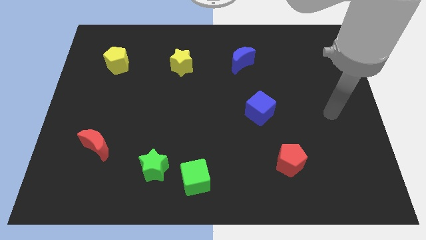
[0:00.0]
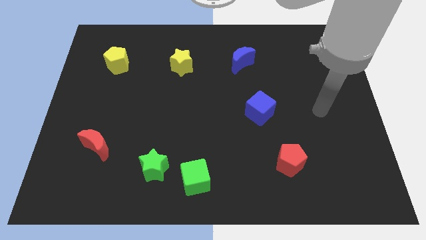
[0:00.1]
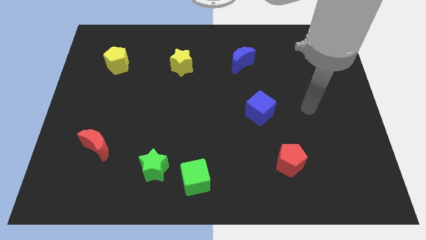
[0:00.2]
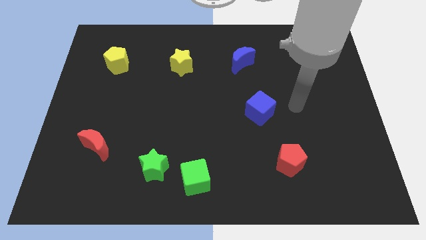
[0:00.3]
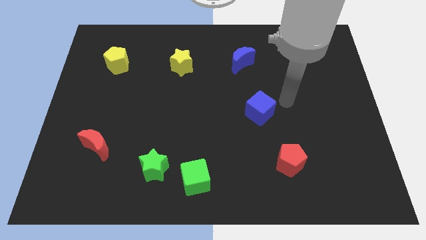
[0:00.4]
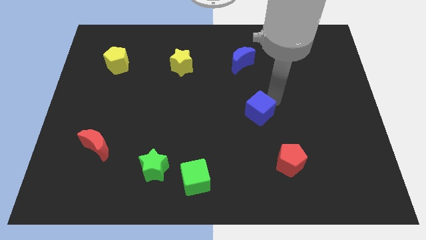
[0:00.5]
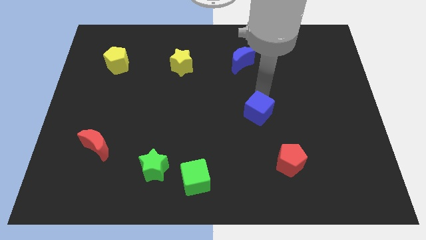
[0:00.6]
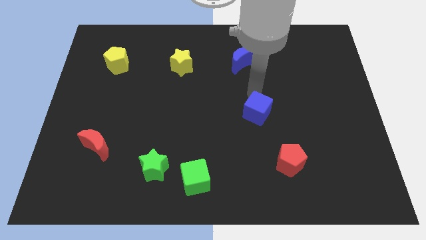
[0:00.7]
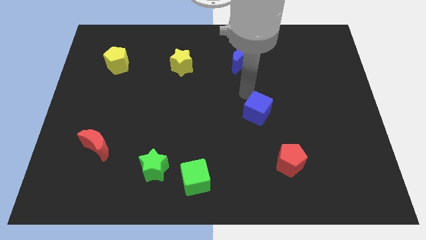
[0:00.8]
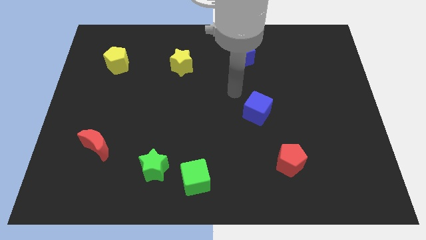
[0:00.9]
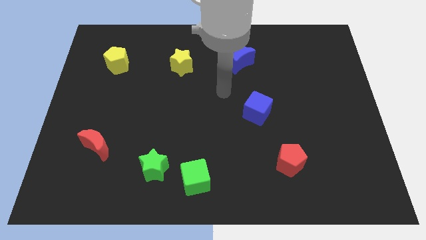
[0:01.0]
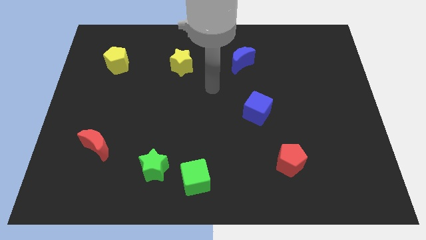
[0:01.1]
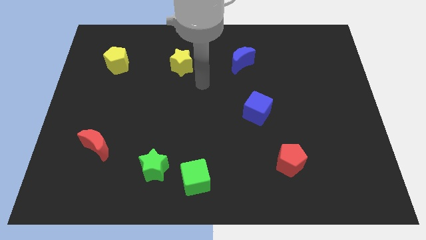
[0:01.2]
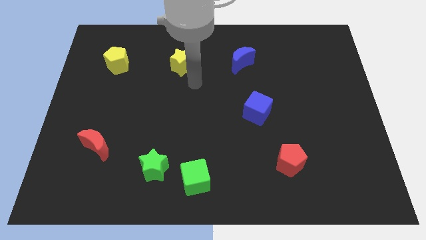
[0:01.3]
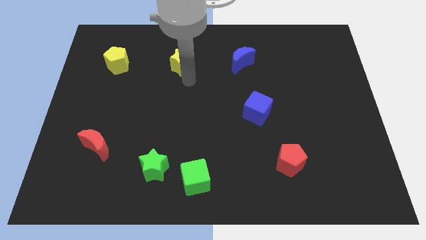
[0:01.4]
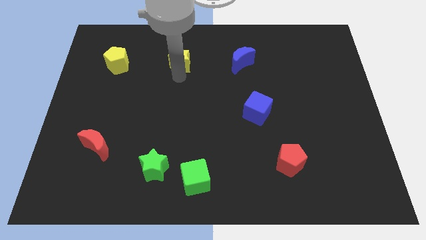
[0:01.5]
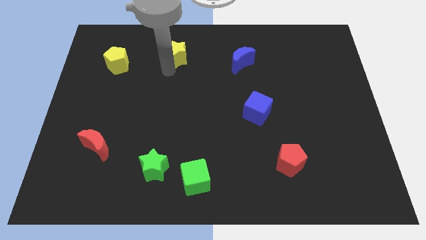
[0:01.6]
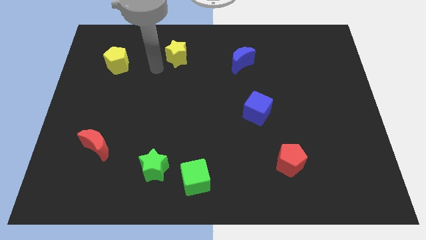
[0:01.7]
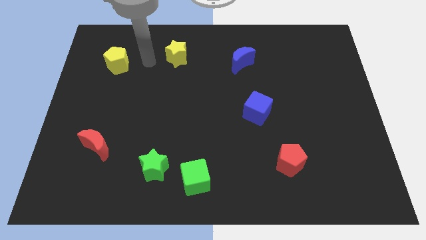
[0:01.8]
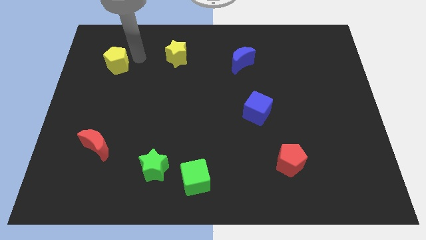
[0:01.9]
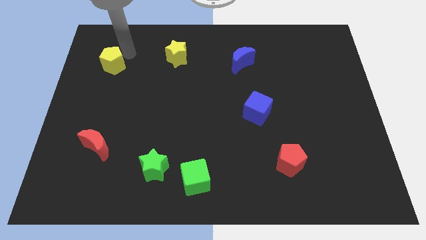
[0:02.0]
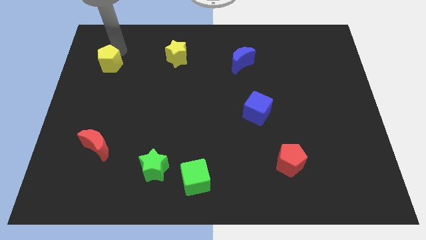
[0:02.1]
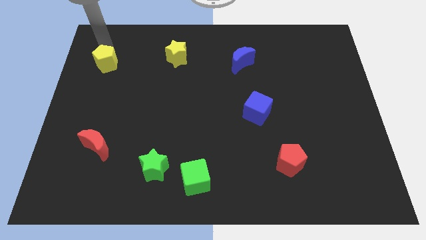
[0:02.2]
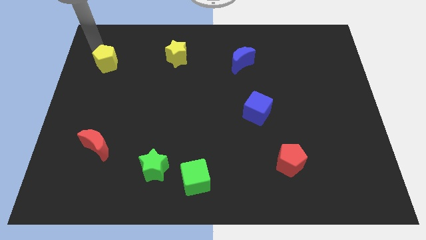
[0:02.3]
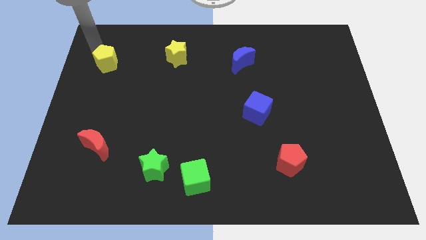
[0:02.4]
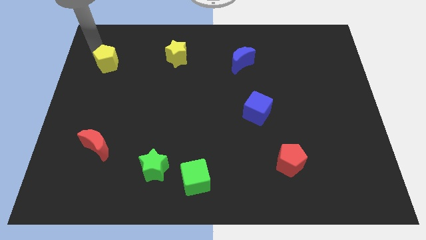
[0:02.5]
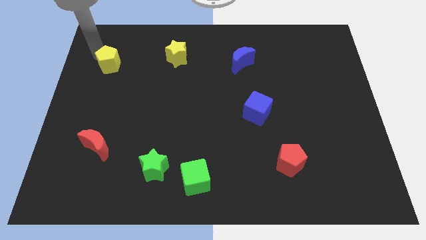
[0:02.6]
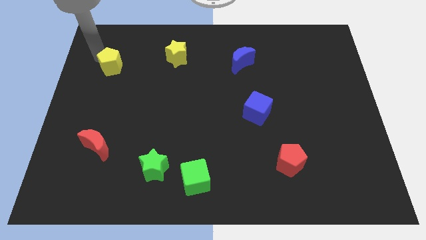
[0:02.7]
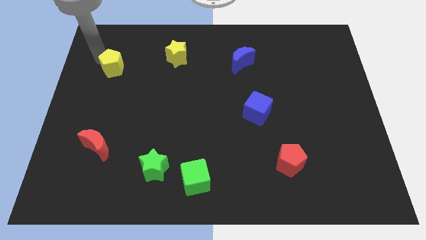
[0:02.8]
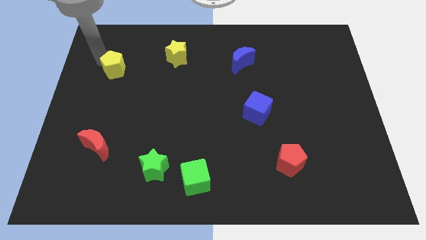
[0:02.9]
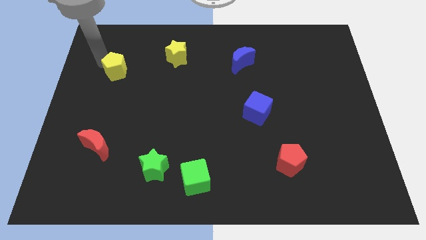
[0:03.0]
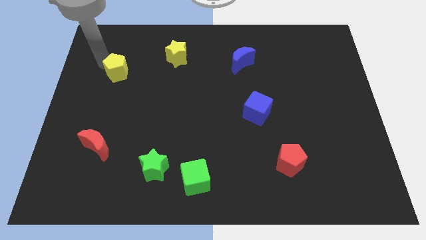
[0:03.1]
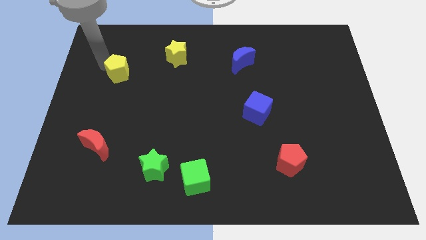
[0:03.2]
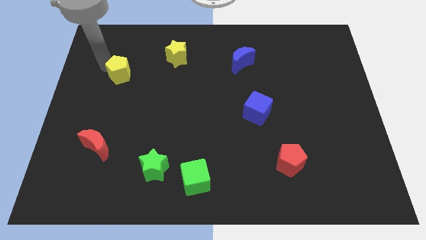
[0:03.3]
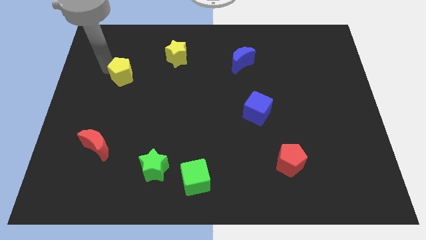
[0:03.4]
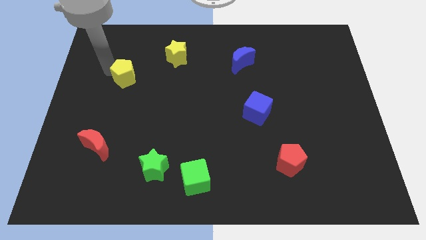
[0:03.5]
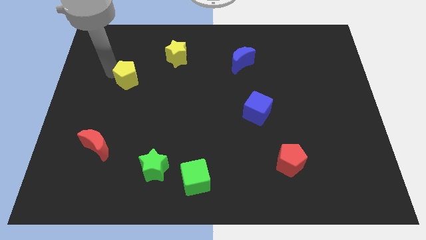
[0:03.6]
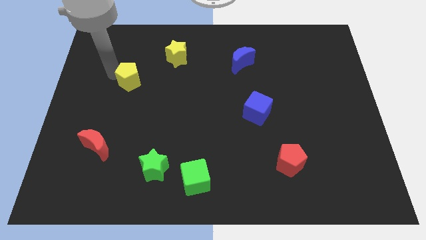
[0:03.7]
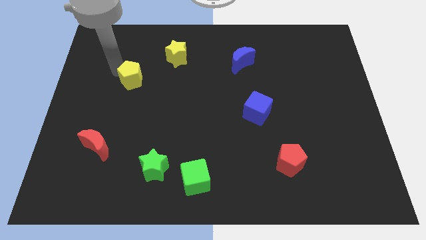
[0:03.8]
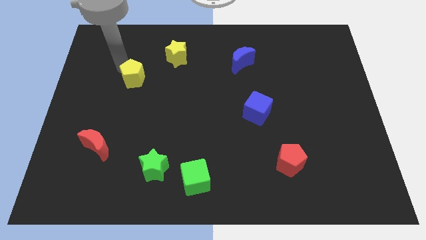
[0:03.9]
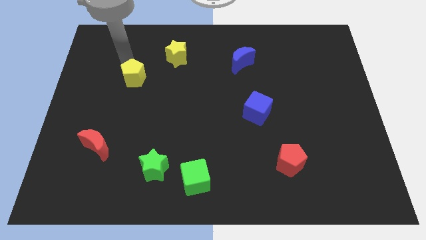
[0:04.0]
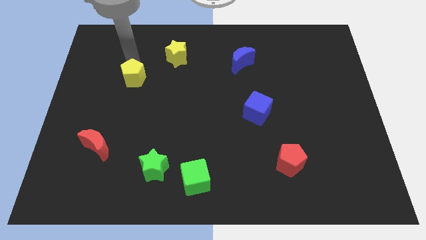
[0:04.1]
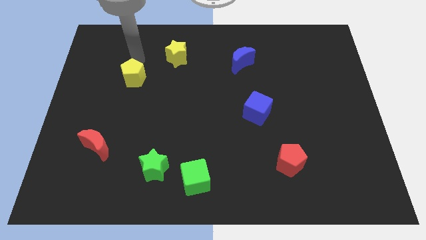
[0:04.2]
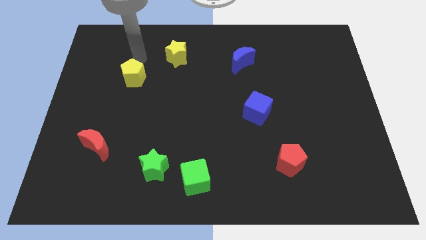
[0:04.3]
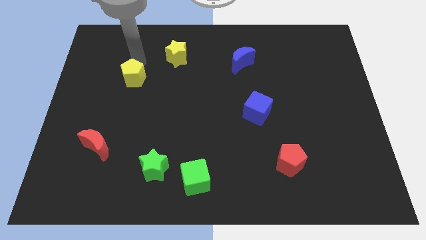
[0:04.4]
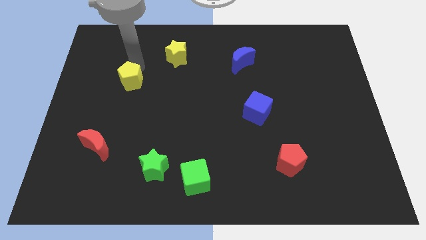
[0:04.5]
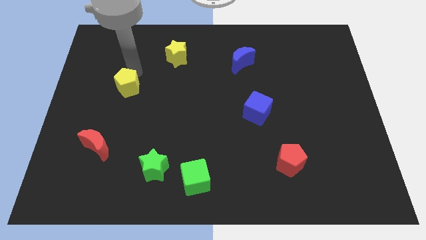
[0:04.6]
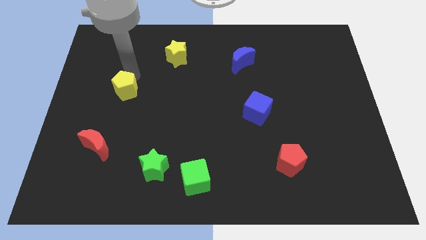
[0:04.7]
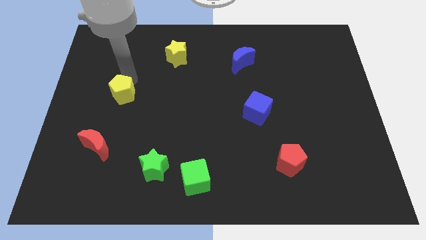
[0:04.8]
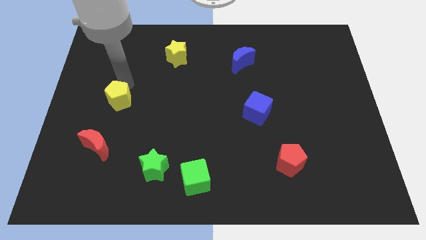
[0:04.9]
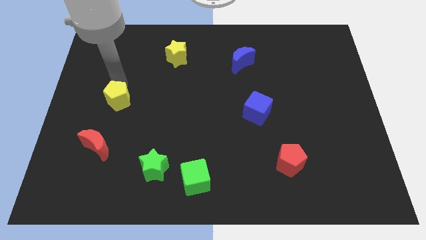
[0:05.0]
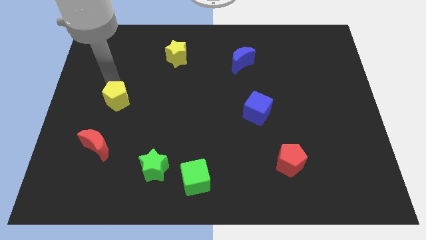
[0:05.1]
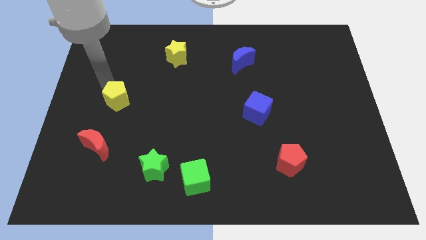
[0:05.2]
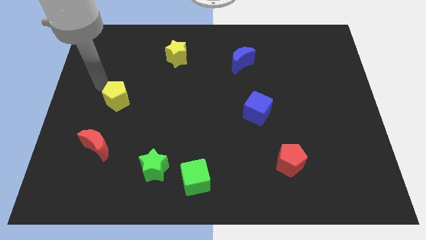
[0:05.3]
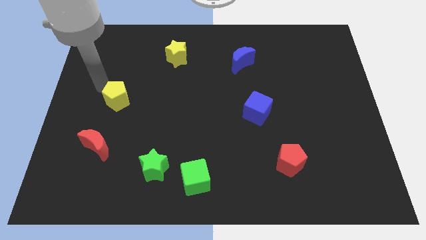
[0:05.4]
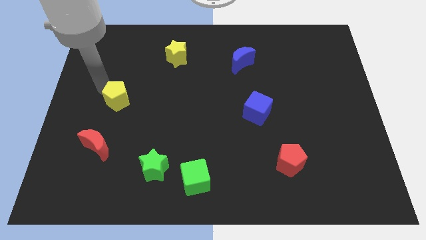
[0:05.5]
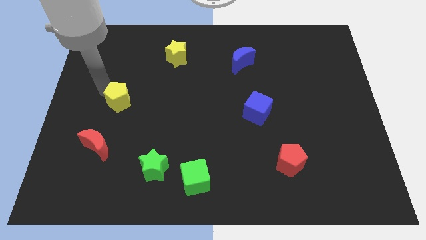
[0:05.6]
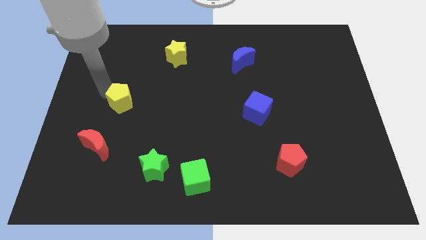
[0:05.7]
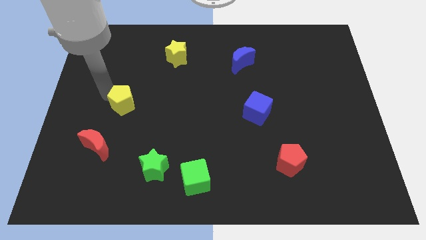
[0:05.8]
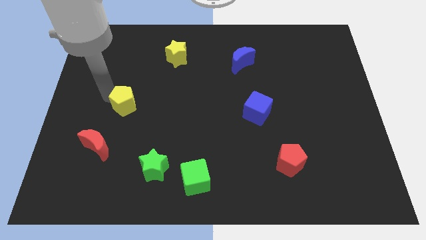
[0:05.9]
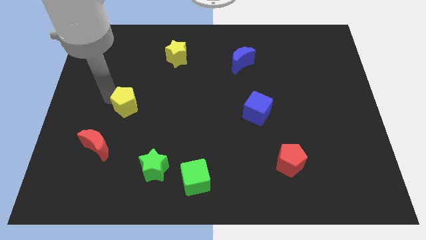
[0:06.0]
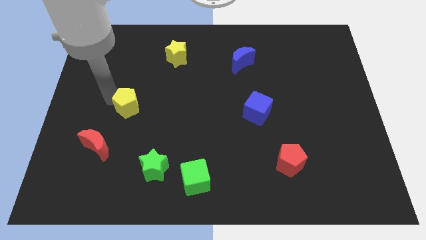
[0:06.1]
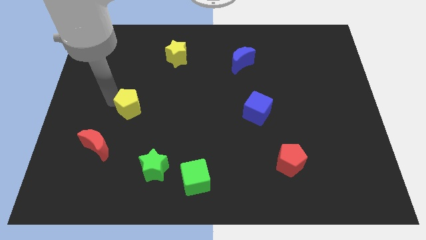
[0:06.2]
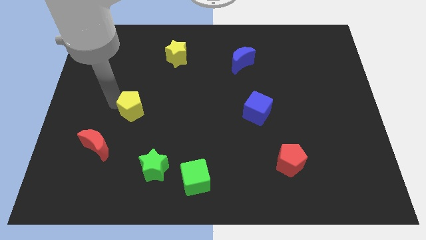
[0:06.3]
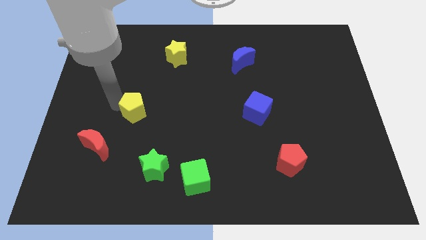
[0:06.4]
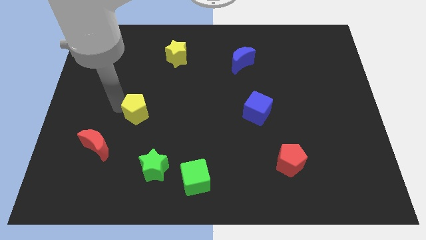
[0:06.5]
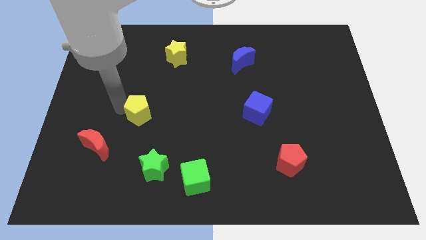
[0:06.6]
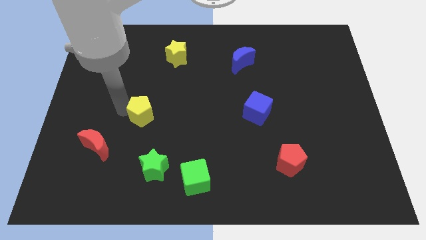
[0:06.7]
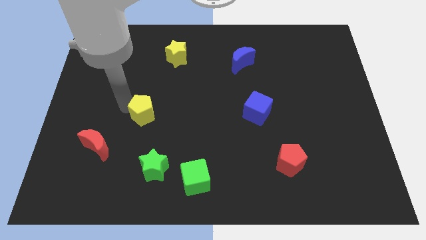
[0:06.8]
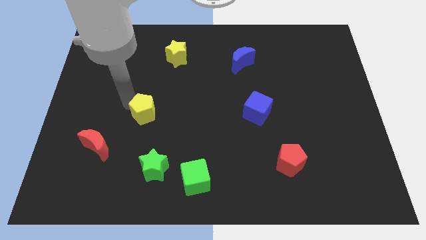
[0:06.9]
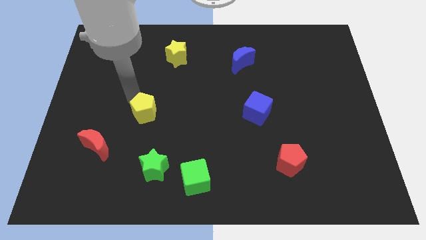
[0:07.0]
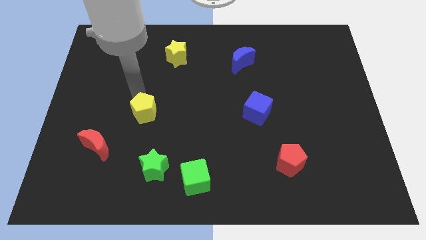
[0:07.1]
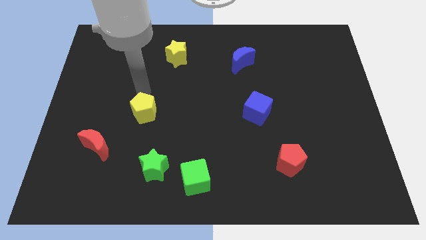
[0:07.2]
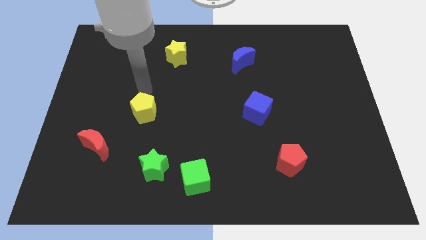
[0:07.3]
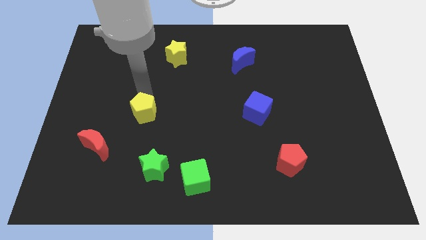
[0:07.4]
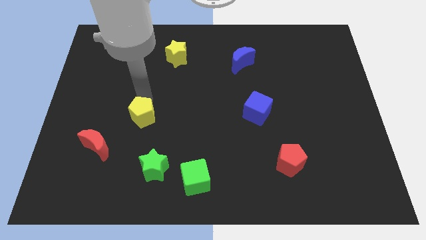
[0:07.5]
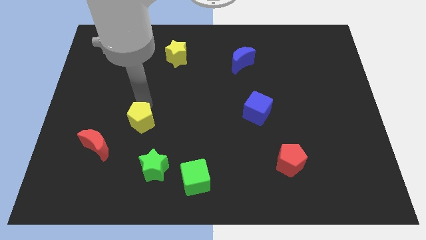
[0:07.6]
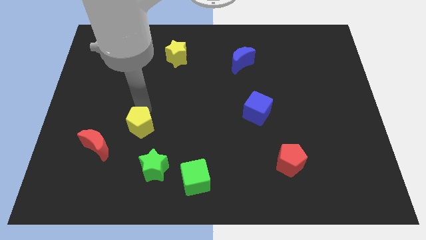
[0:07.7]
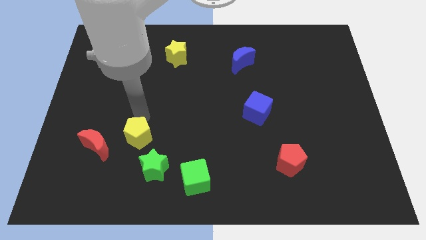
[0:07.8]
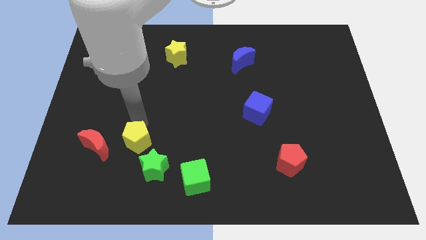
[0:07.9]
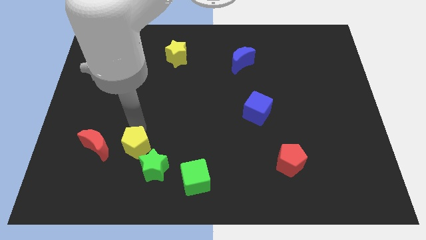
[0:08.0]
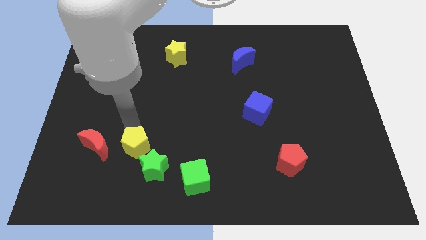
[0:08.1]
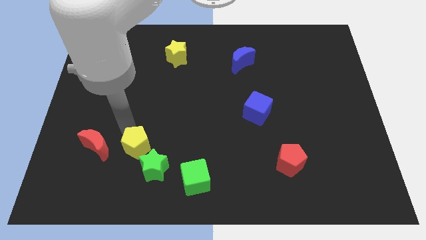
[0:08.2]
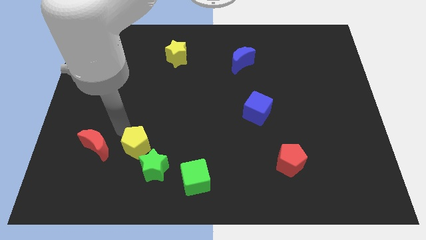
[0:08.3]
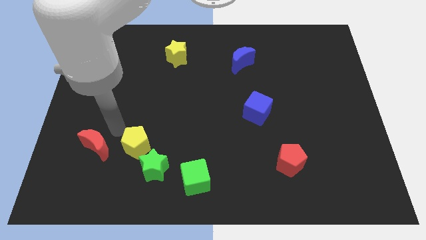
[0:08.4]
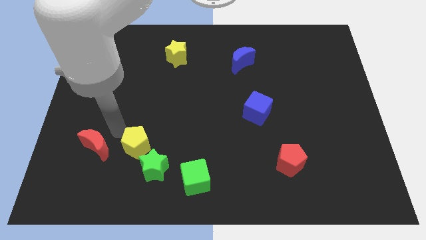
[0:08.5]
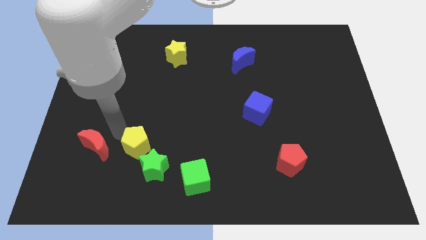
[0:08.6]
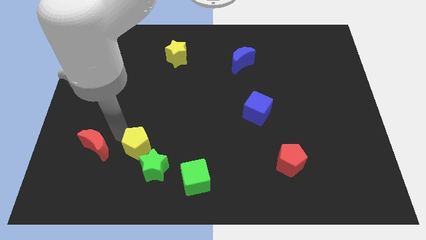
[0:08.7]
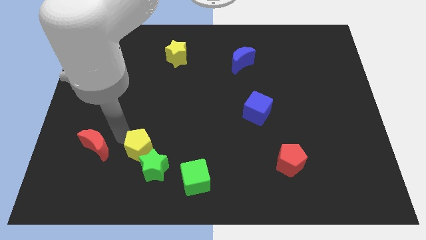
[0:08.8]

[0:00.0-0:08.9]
move the yellow pentagon next to the green star
